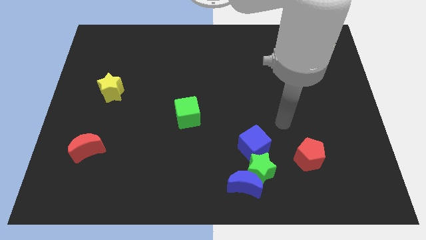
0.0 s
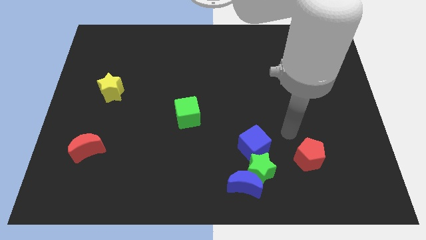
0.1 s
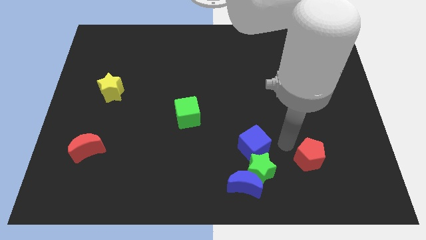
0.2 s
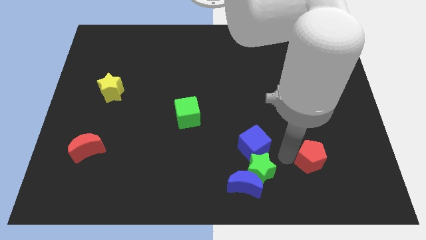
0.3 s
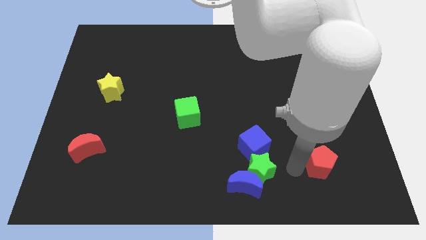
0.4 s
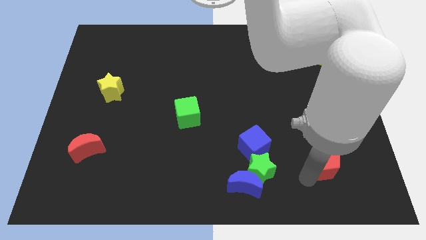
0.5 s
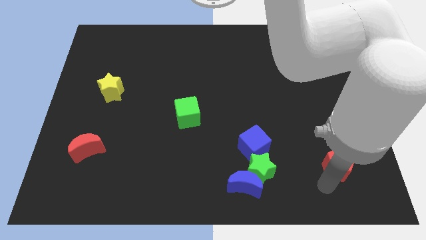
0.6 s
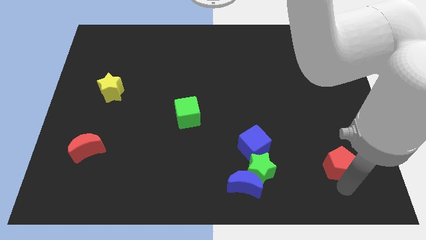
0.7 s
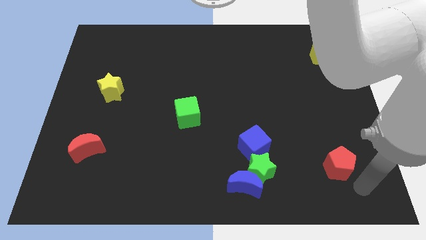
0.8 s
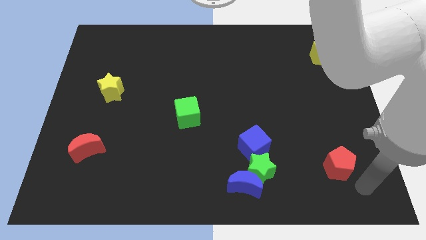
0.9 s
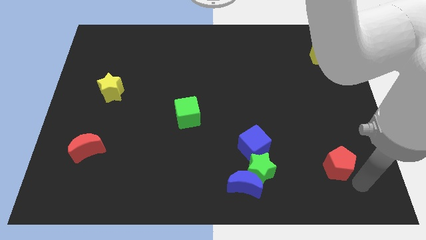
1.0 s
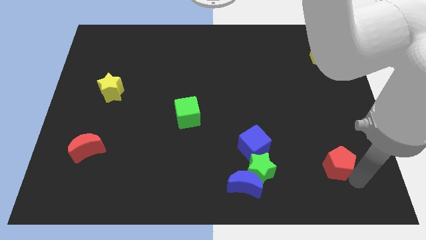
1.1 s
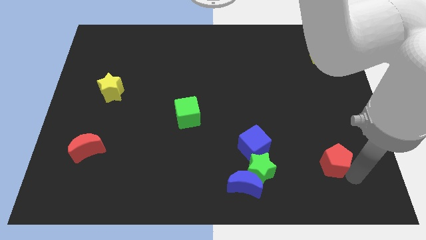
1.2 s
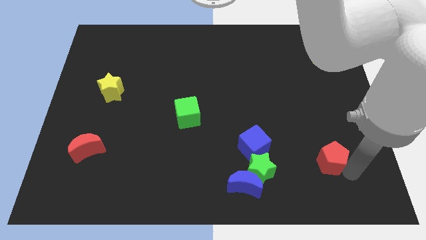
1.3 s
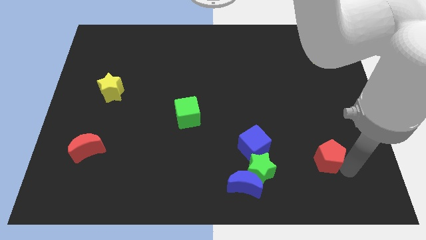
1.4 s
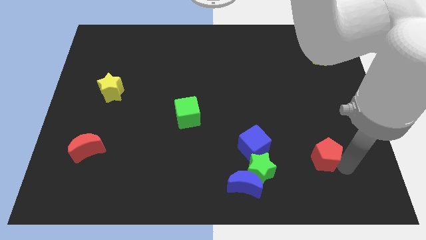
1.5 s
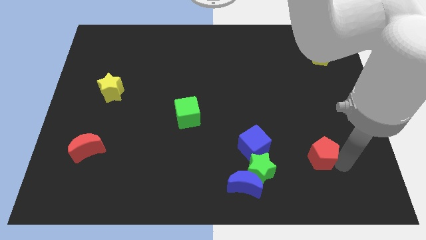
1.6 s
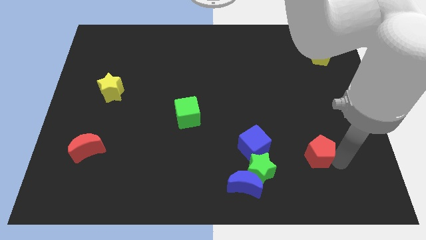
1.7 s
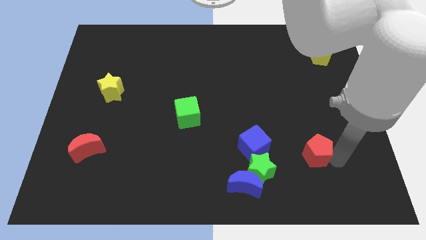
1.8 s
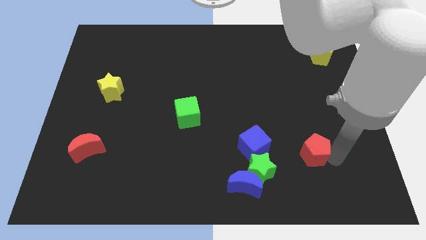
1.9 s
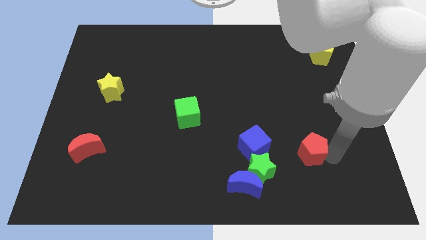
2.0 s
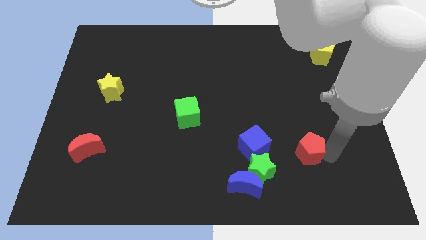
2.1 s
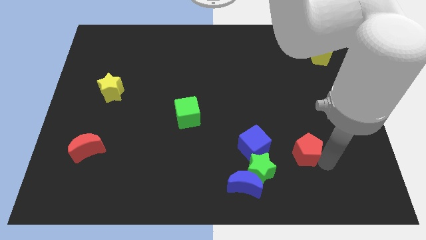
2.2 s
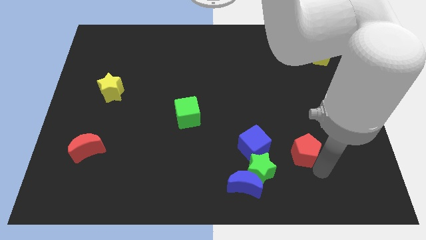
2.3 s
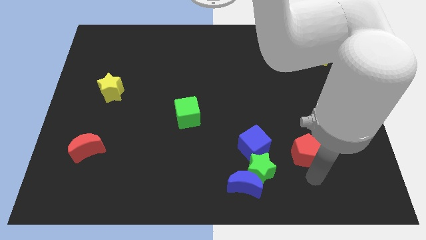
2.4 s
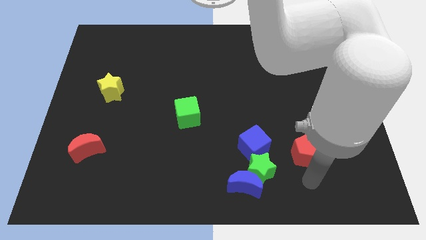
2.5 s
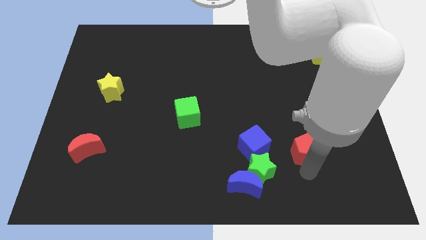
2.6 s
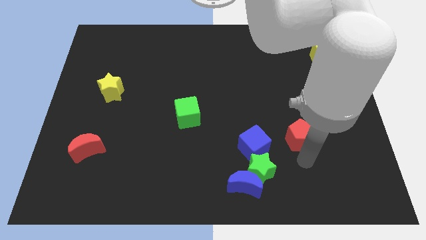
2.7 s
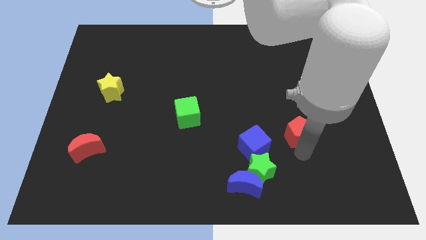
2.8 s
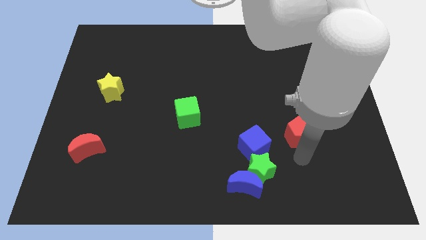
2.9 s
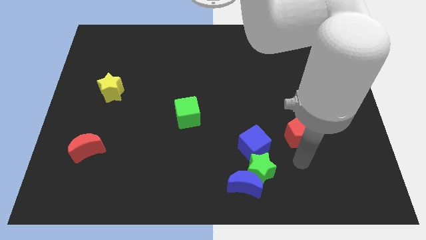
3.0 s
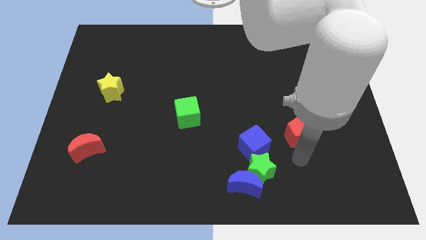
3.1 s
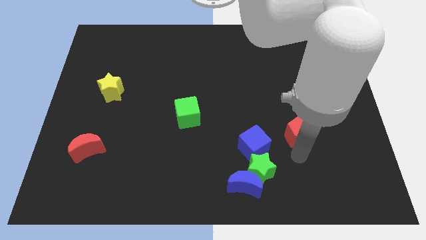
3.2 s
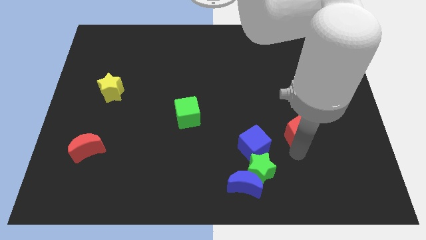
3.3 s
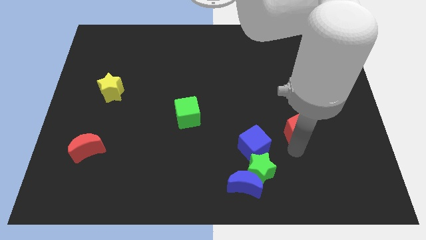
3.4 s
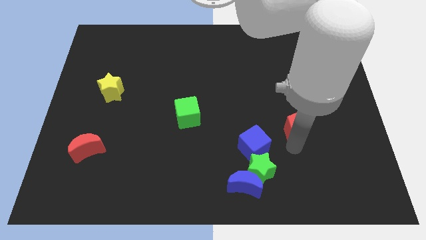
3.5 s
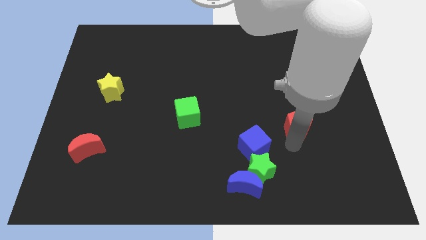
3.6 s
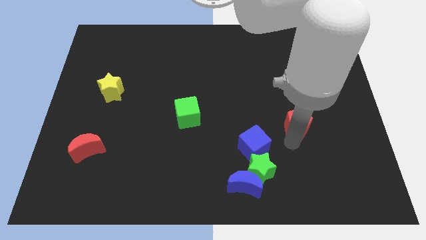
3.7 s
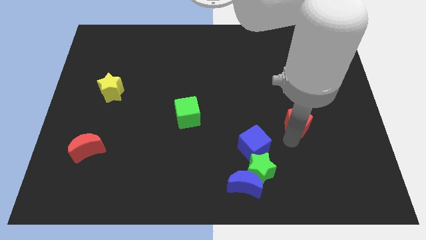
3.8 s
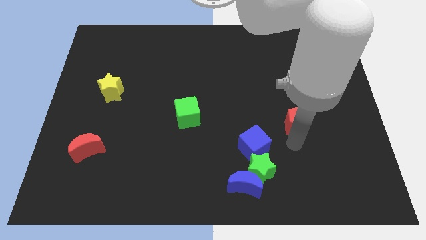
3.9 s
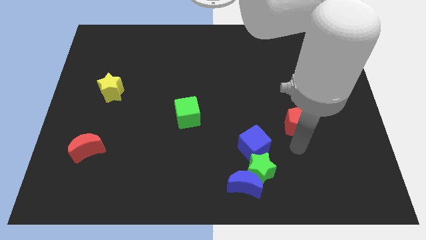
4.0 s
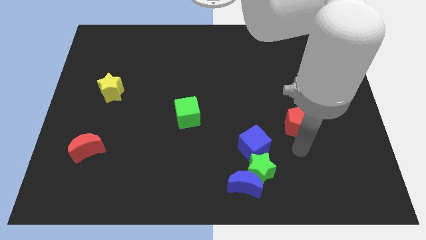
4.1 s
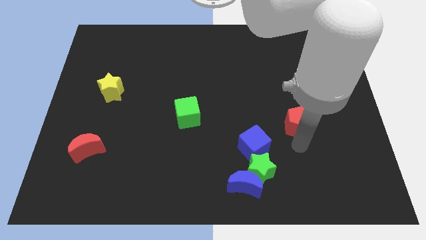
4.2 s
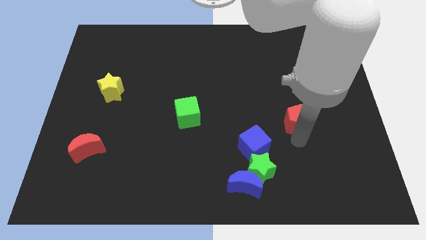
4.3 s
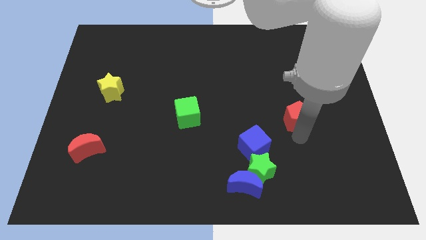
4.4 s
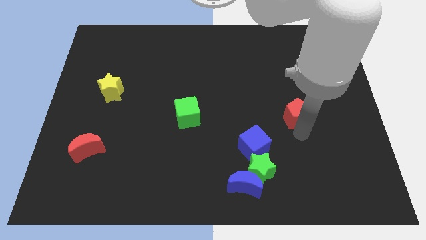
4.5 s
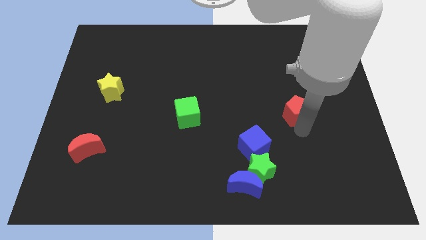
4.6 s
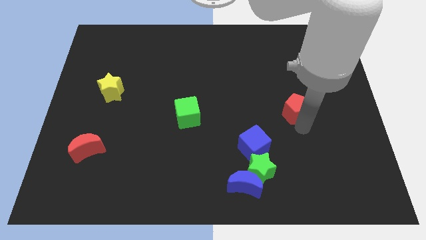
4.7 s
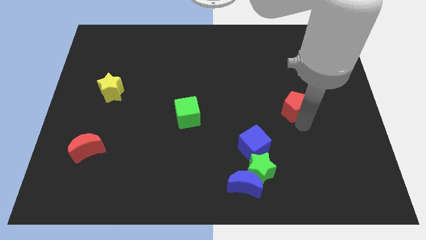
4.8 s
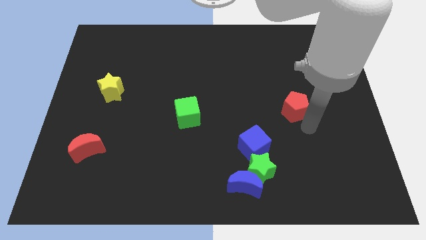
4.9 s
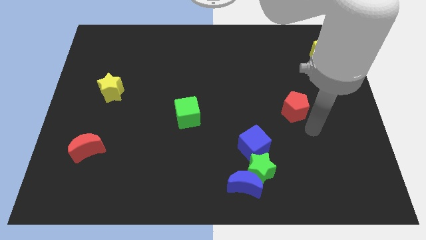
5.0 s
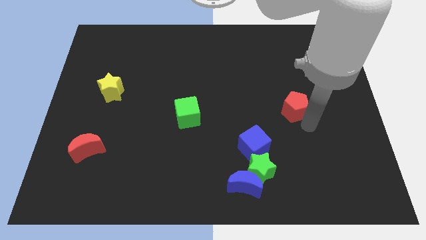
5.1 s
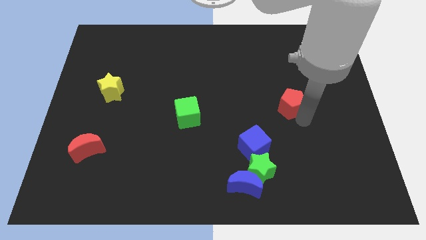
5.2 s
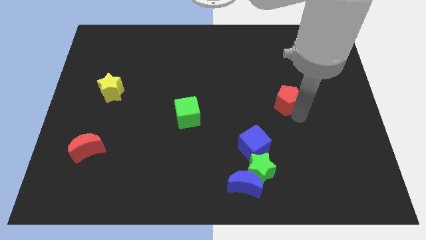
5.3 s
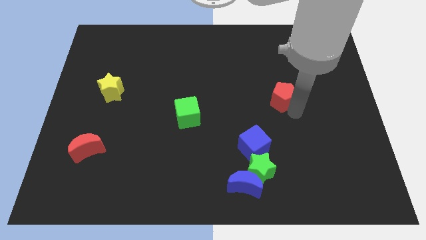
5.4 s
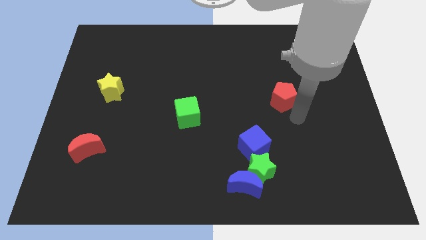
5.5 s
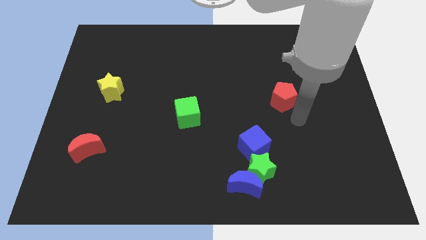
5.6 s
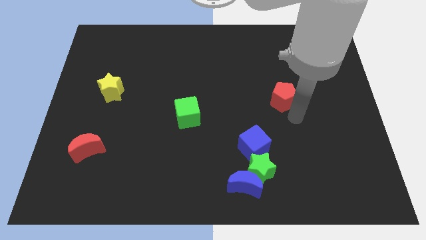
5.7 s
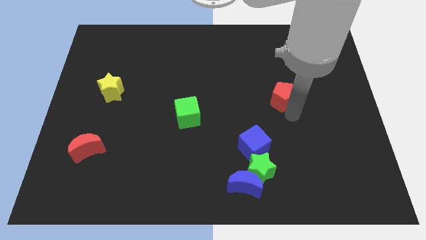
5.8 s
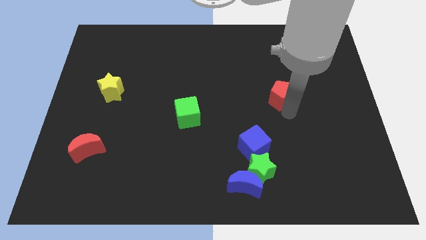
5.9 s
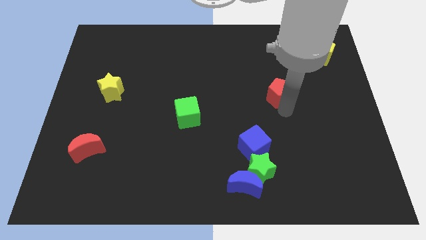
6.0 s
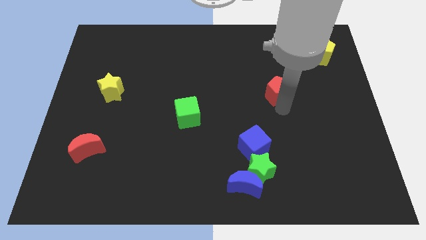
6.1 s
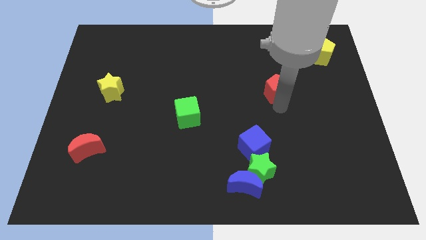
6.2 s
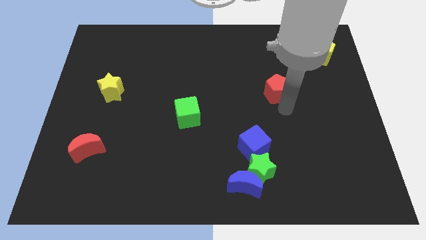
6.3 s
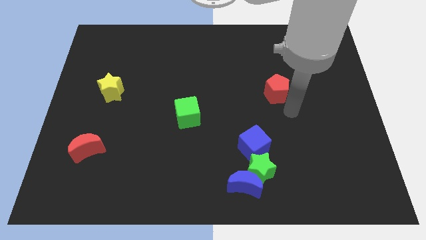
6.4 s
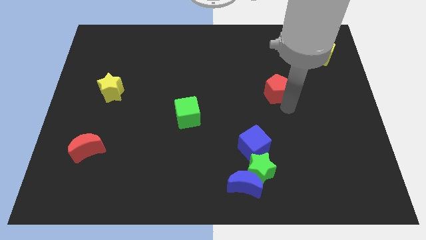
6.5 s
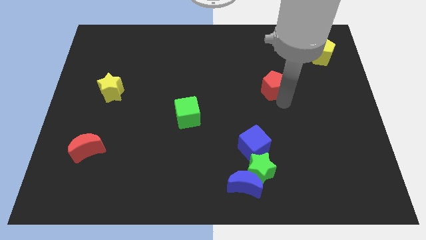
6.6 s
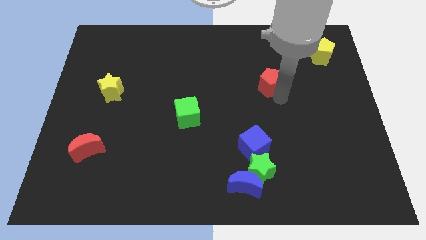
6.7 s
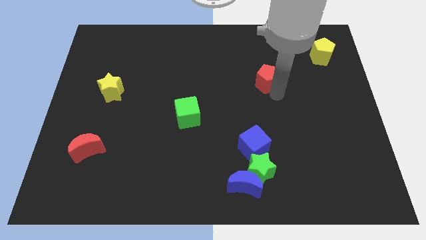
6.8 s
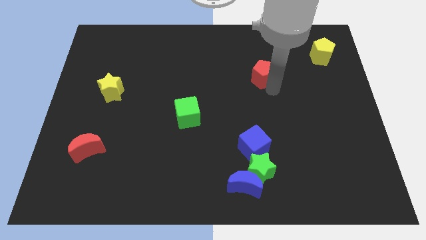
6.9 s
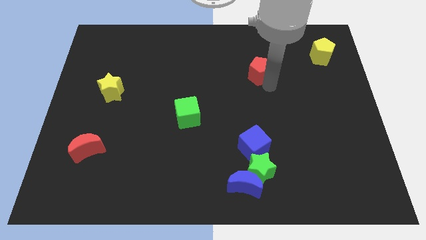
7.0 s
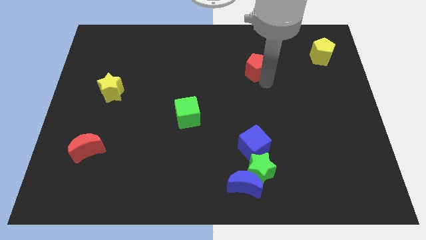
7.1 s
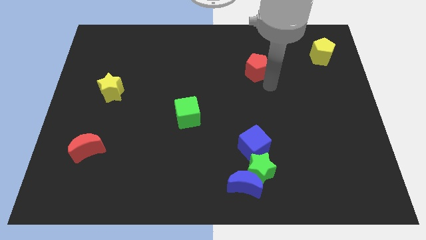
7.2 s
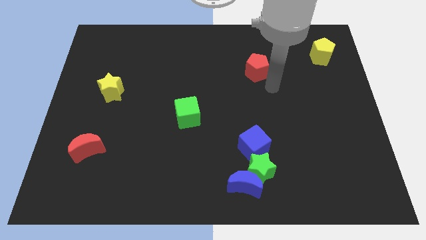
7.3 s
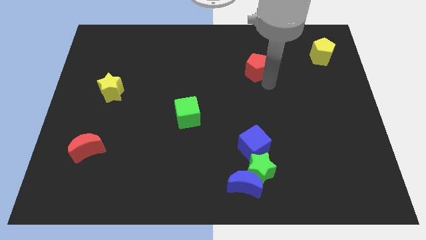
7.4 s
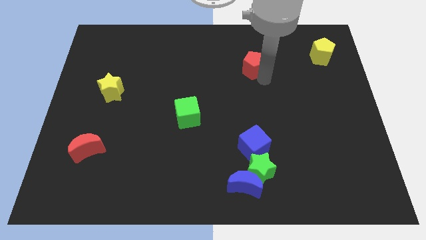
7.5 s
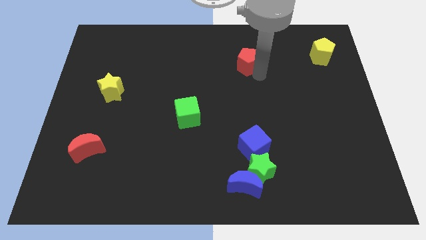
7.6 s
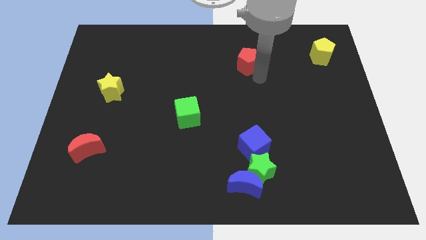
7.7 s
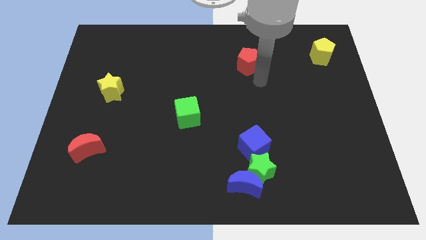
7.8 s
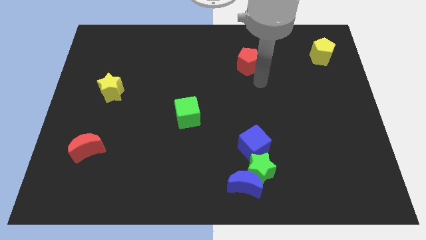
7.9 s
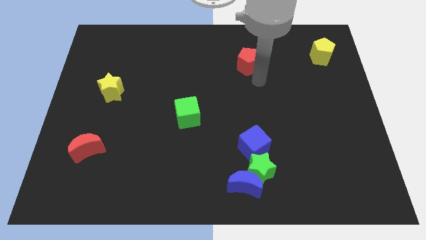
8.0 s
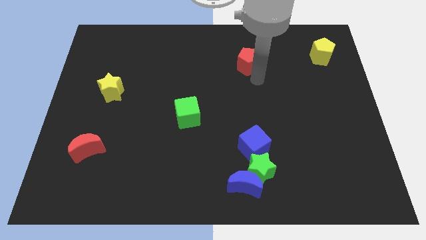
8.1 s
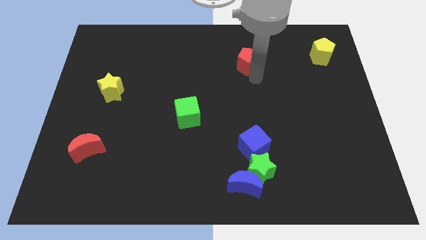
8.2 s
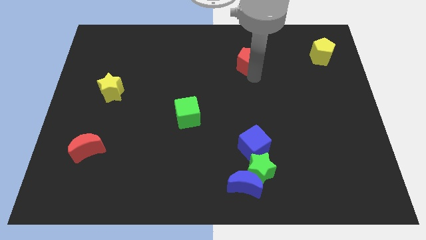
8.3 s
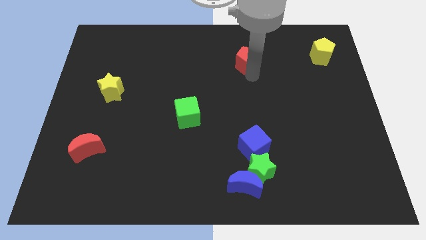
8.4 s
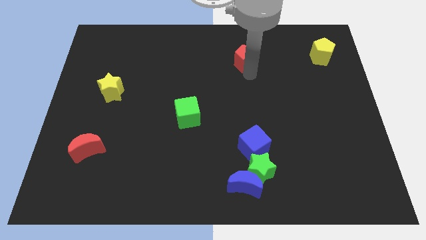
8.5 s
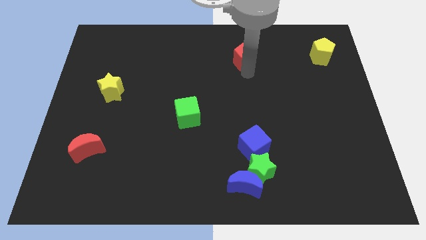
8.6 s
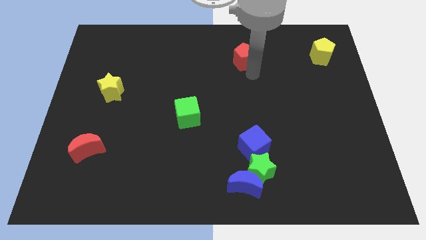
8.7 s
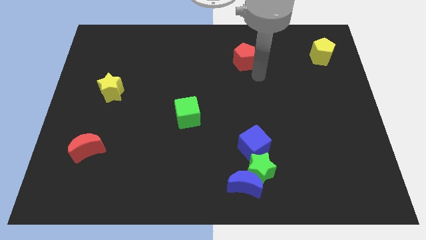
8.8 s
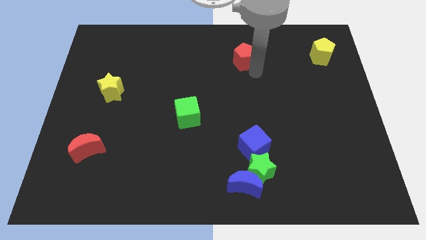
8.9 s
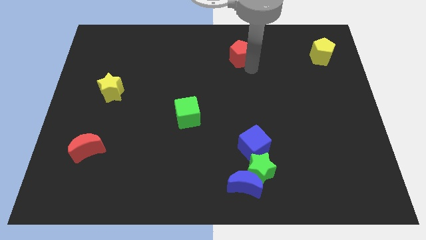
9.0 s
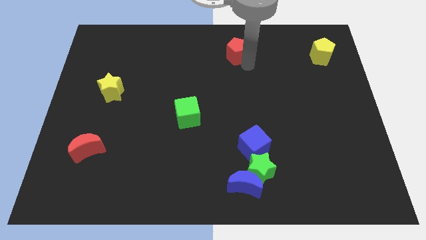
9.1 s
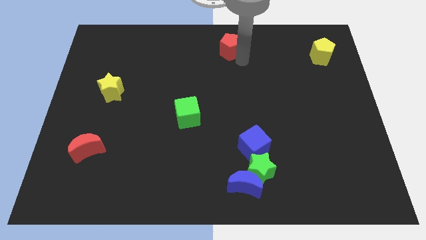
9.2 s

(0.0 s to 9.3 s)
put the red pentagon to the top
